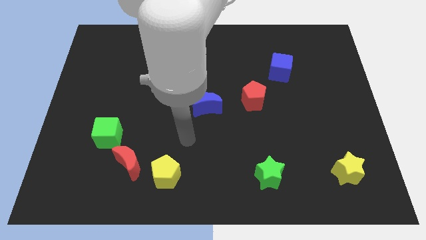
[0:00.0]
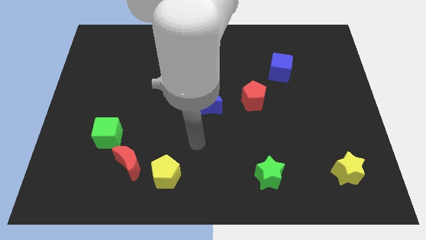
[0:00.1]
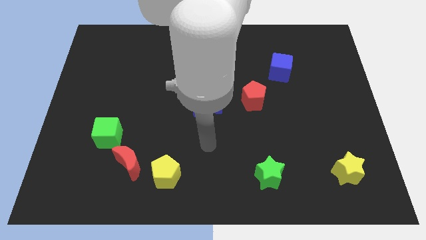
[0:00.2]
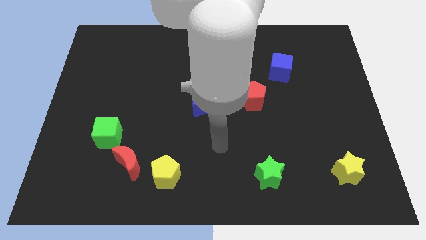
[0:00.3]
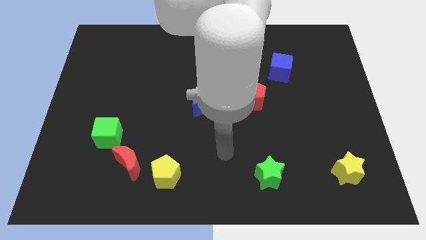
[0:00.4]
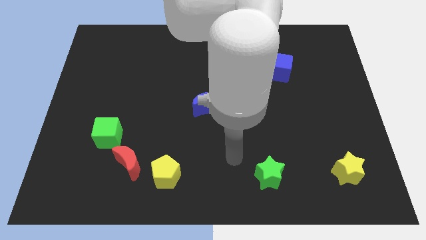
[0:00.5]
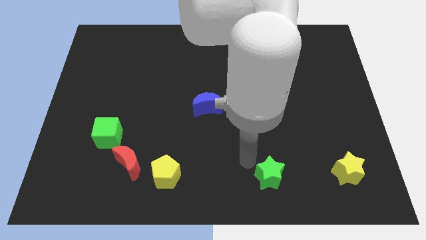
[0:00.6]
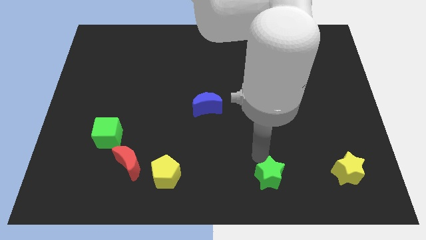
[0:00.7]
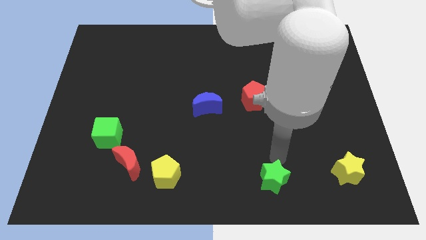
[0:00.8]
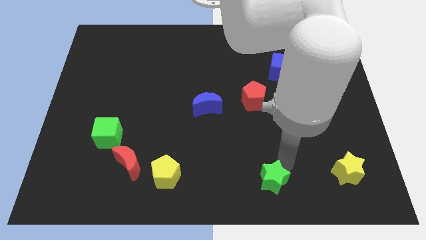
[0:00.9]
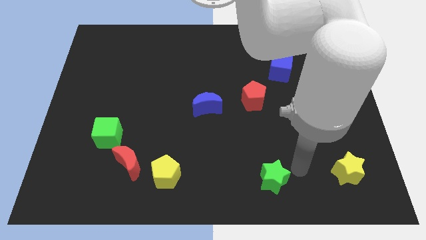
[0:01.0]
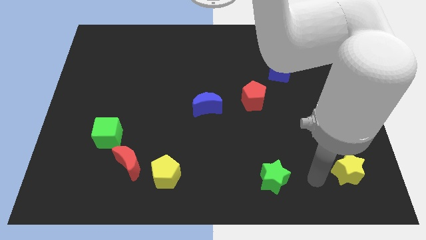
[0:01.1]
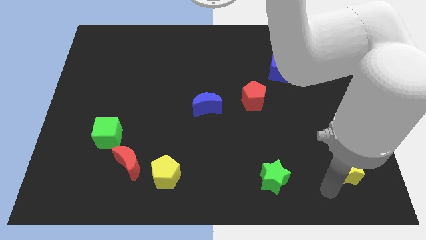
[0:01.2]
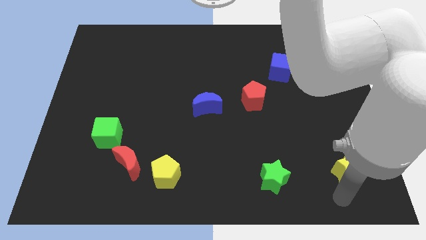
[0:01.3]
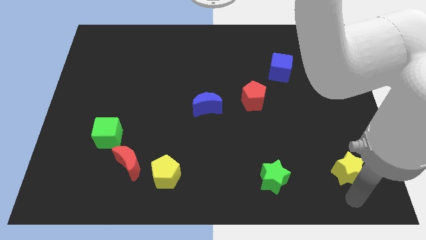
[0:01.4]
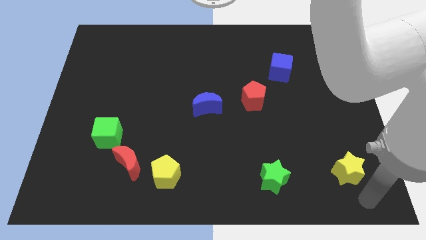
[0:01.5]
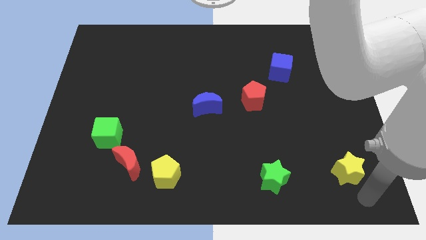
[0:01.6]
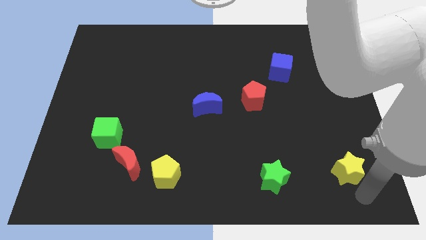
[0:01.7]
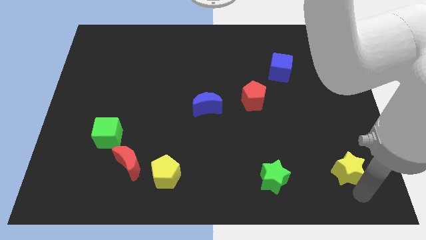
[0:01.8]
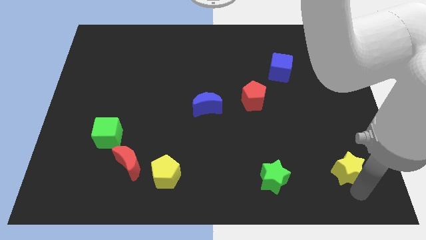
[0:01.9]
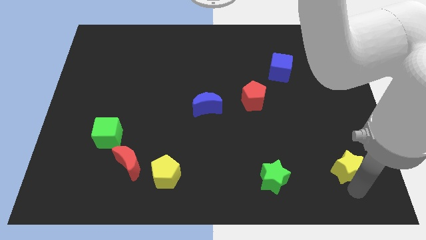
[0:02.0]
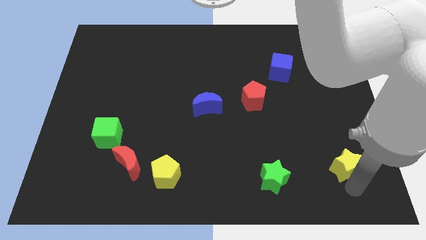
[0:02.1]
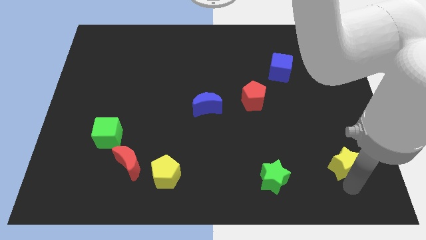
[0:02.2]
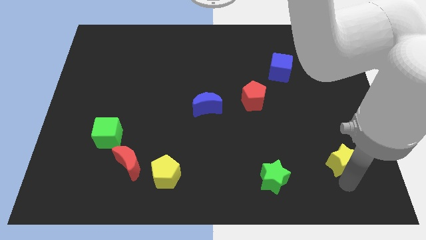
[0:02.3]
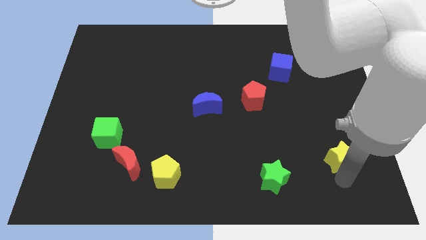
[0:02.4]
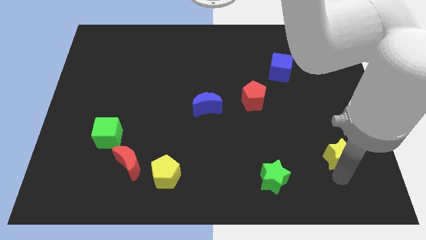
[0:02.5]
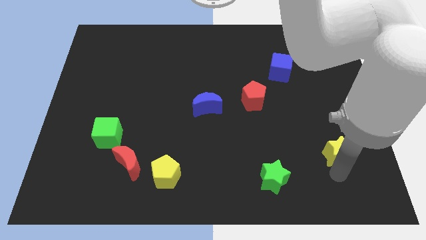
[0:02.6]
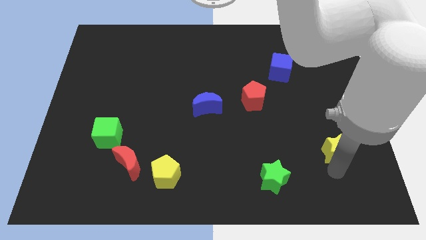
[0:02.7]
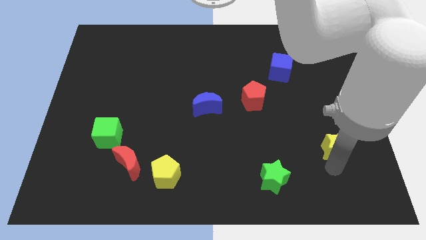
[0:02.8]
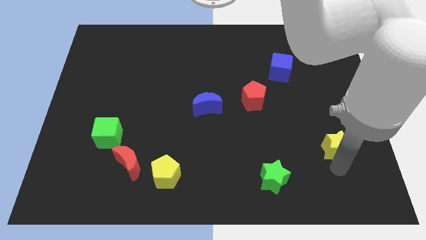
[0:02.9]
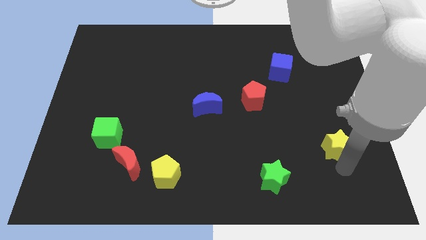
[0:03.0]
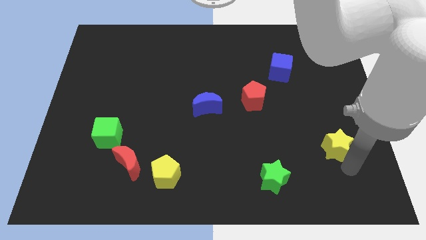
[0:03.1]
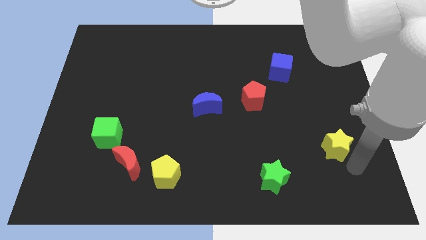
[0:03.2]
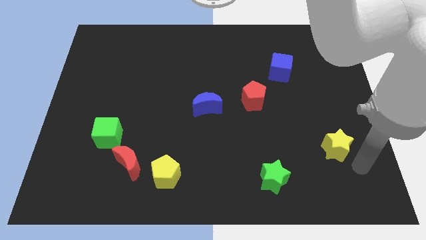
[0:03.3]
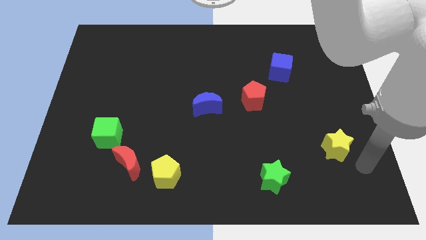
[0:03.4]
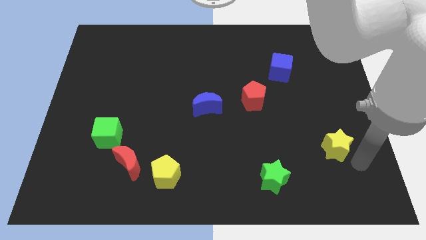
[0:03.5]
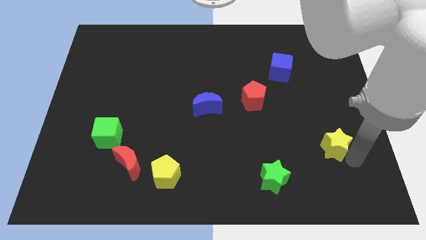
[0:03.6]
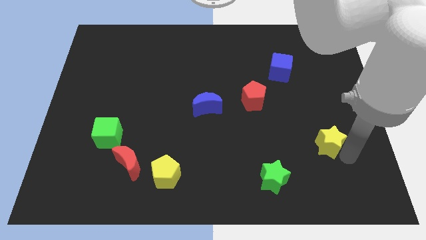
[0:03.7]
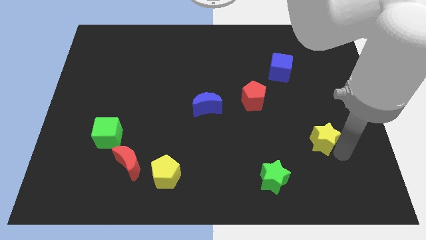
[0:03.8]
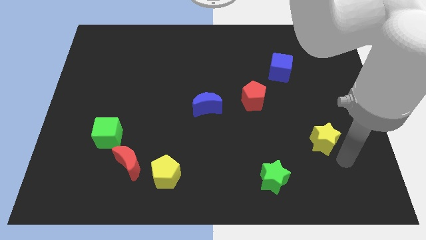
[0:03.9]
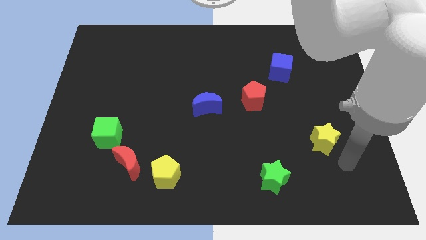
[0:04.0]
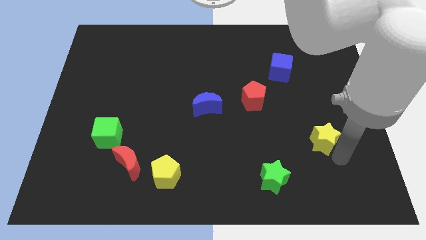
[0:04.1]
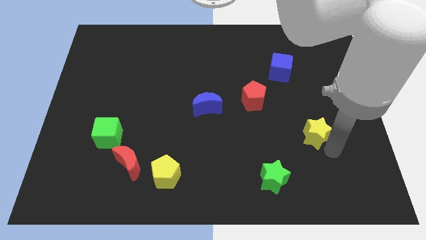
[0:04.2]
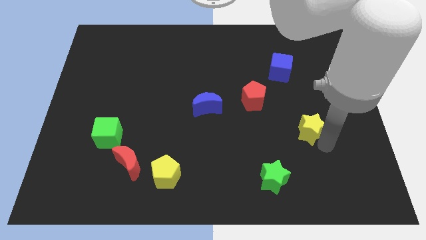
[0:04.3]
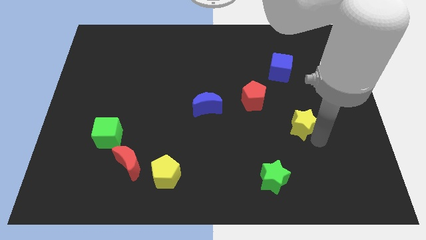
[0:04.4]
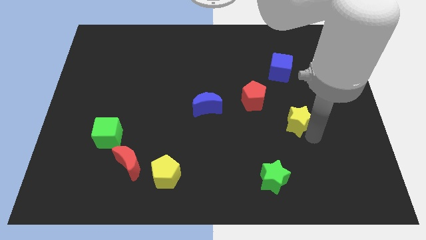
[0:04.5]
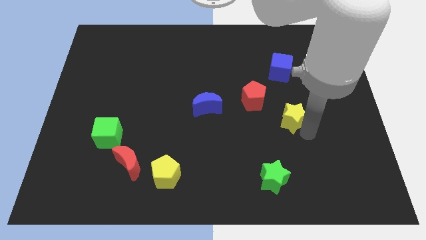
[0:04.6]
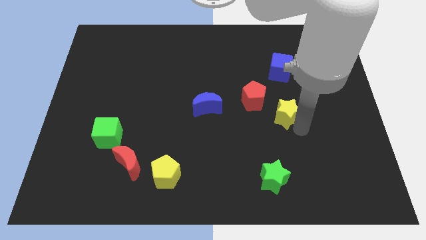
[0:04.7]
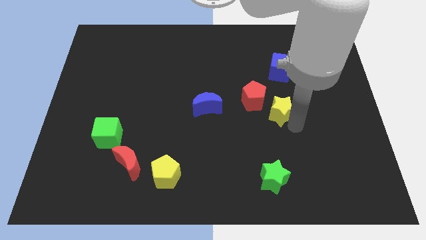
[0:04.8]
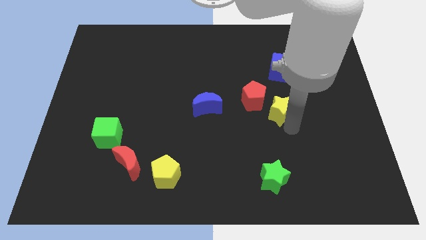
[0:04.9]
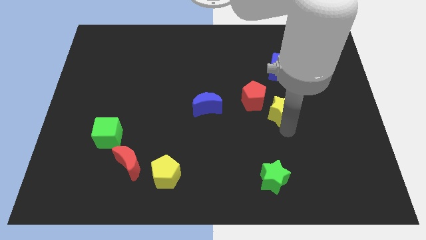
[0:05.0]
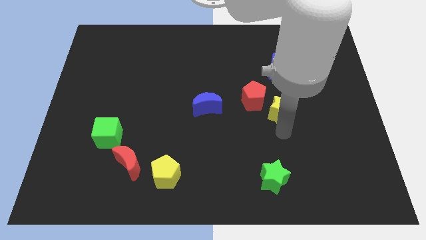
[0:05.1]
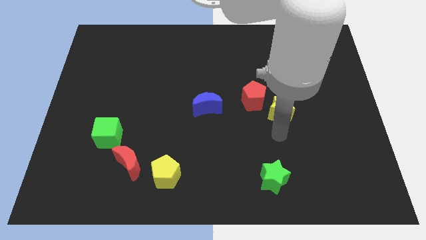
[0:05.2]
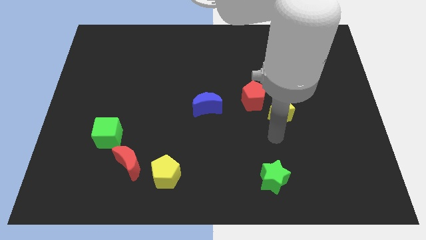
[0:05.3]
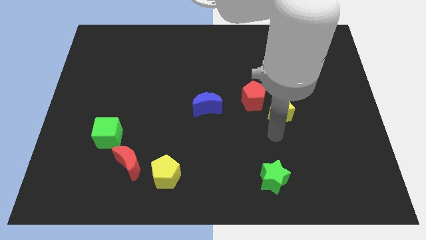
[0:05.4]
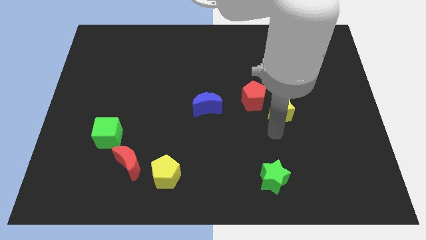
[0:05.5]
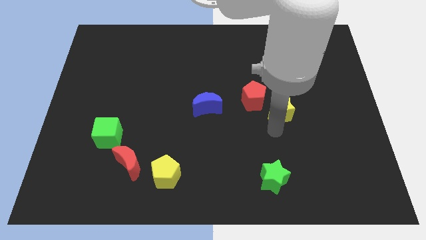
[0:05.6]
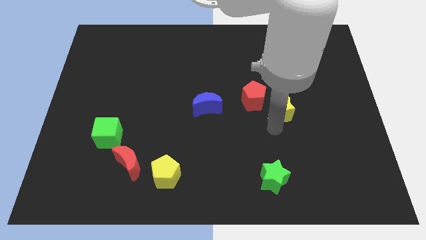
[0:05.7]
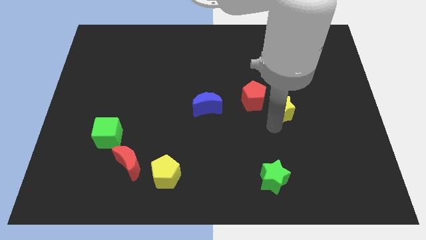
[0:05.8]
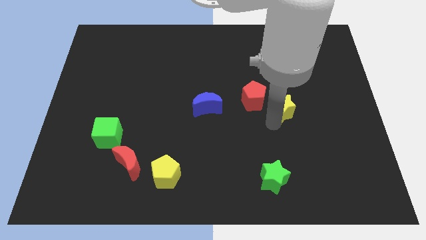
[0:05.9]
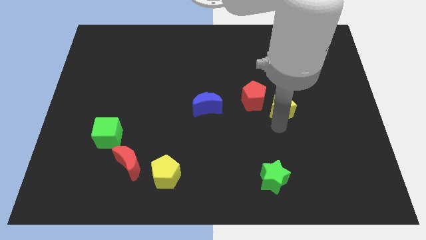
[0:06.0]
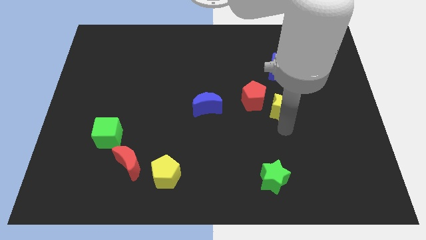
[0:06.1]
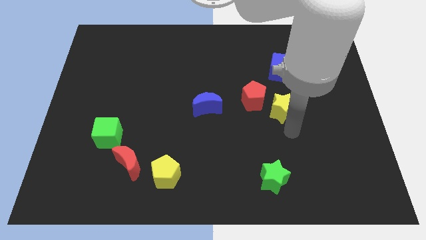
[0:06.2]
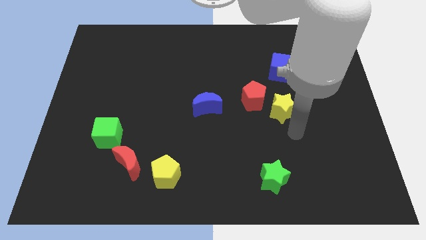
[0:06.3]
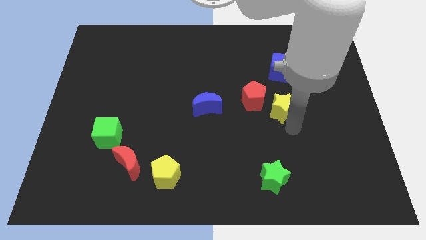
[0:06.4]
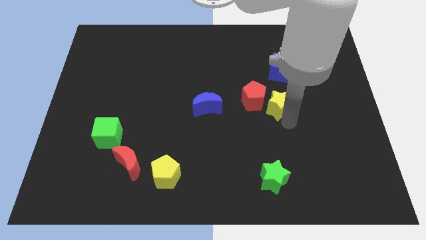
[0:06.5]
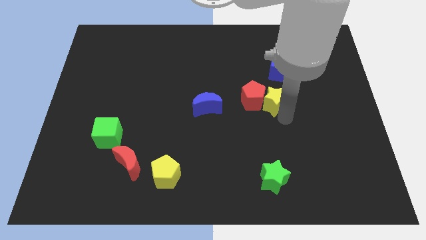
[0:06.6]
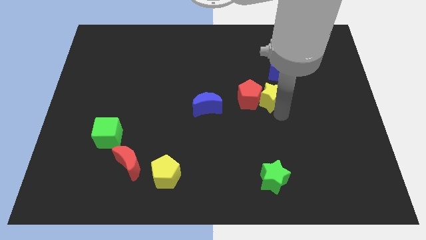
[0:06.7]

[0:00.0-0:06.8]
push the yellow star to the bottom left of the blue cube
